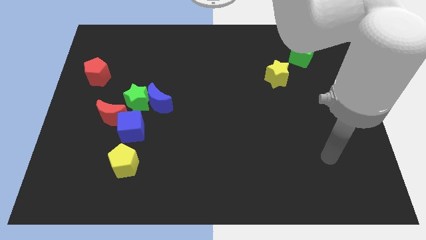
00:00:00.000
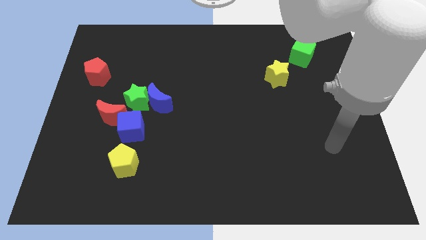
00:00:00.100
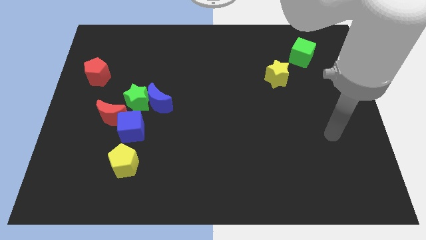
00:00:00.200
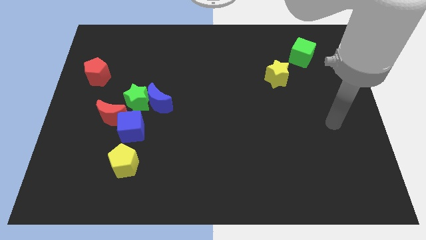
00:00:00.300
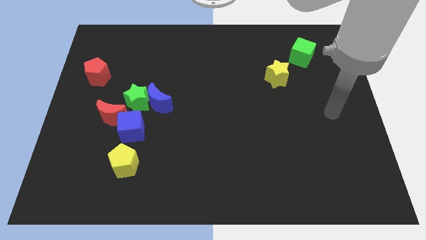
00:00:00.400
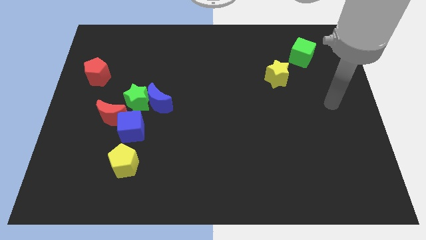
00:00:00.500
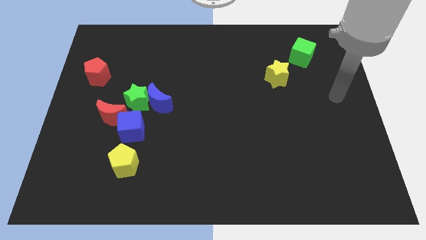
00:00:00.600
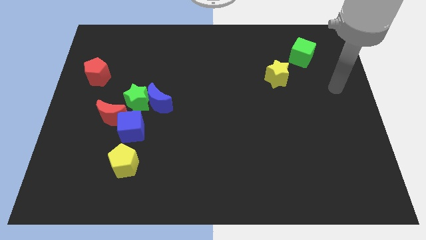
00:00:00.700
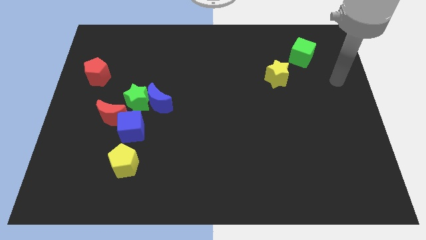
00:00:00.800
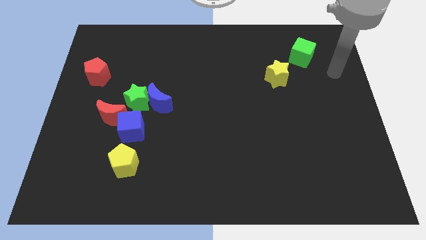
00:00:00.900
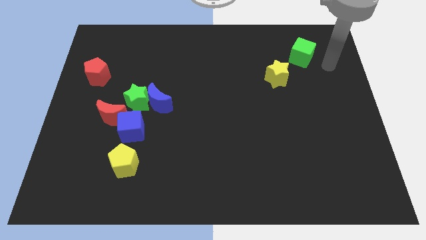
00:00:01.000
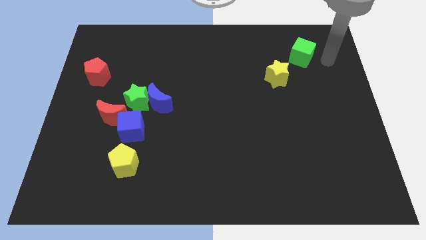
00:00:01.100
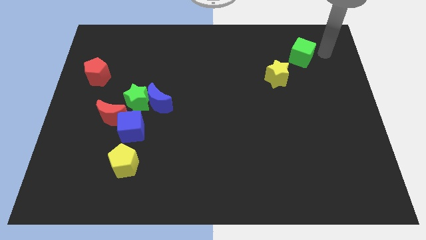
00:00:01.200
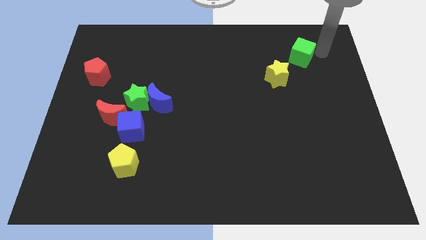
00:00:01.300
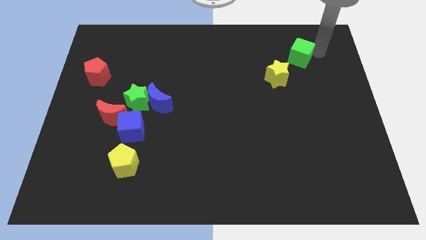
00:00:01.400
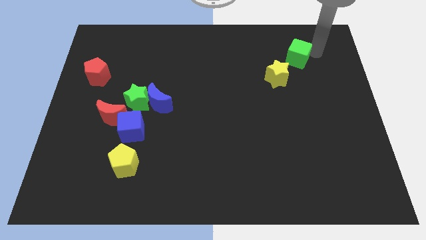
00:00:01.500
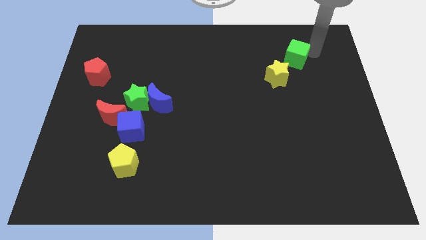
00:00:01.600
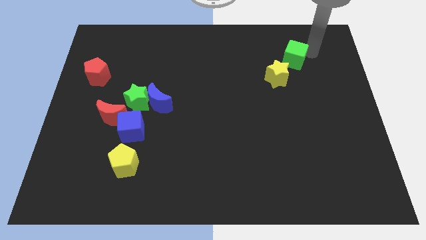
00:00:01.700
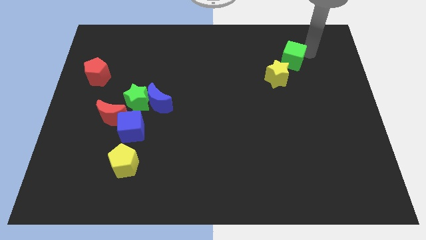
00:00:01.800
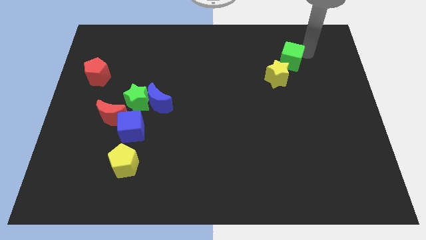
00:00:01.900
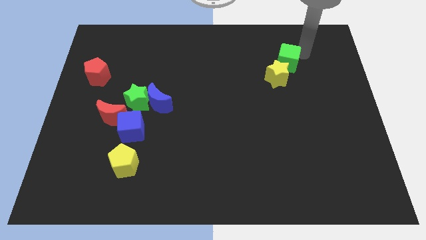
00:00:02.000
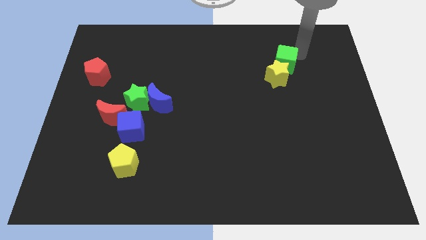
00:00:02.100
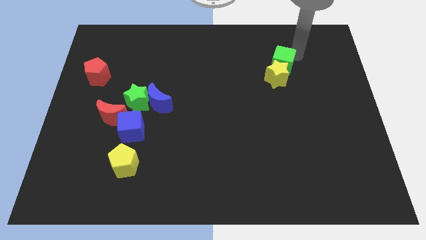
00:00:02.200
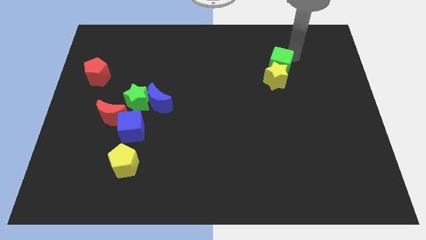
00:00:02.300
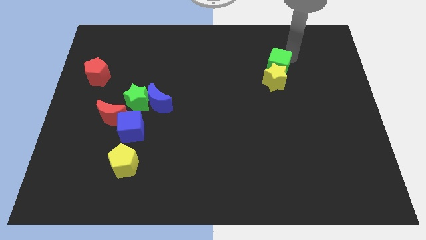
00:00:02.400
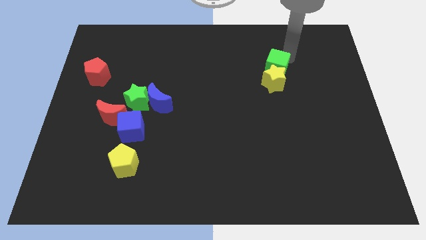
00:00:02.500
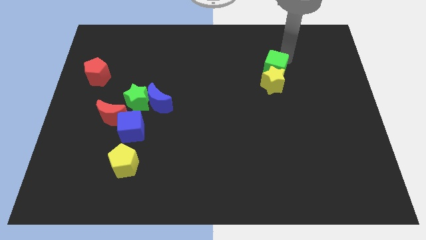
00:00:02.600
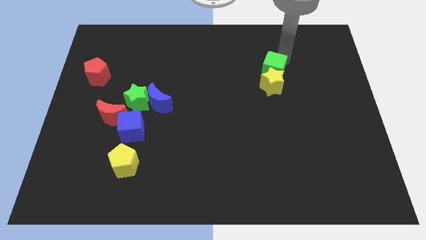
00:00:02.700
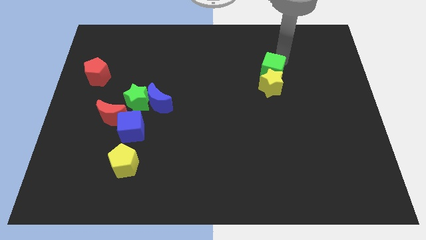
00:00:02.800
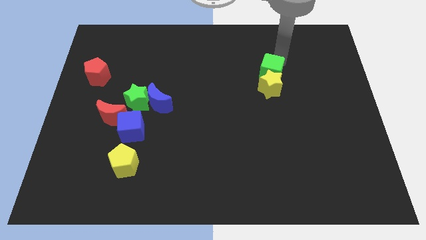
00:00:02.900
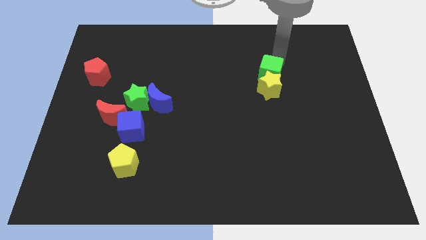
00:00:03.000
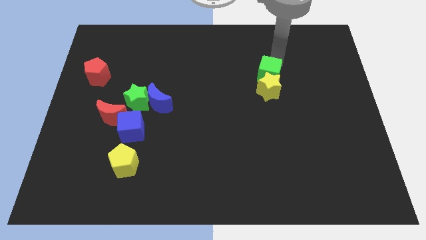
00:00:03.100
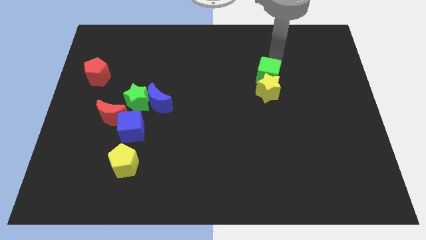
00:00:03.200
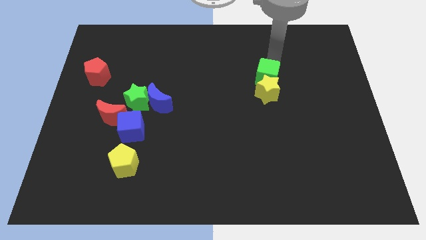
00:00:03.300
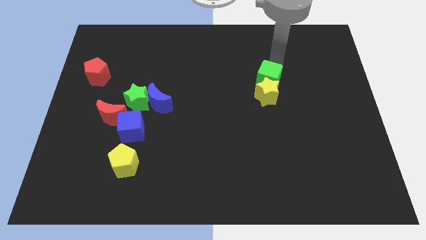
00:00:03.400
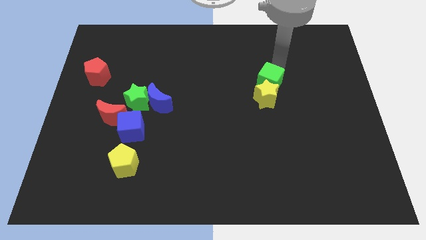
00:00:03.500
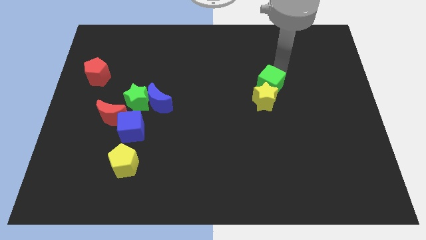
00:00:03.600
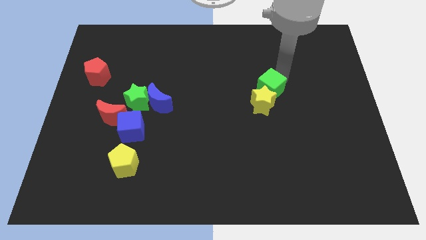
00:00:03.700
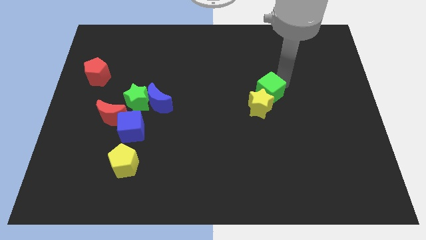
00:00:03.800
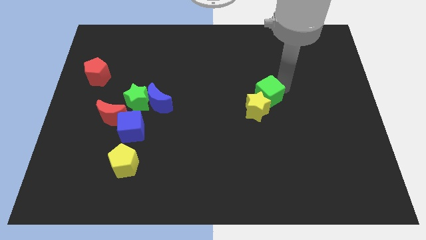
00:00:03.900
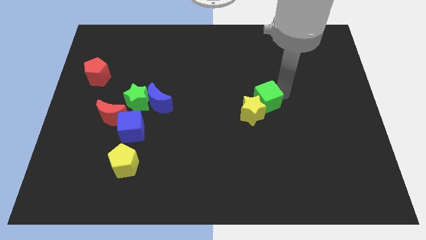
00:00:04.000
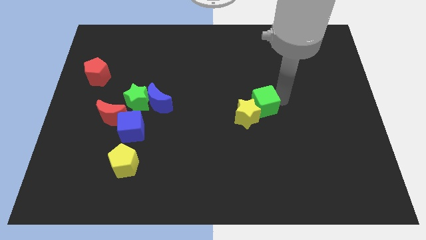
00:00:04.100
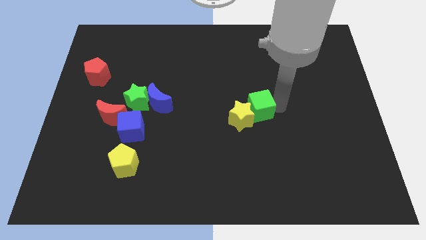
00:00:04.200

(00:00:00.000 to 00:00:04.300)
push the green cube downwards and left diagonally

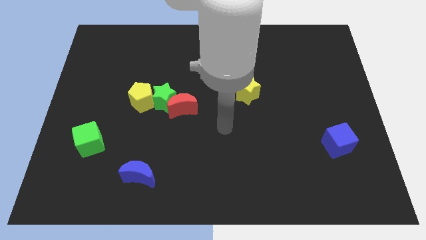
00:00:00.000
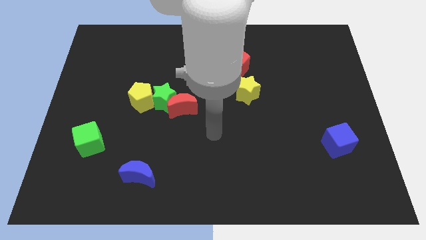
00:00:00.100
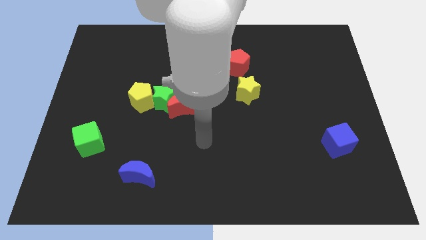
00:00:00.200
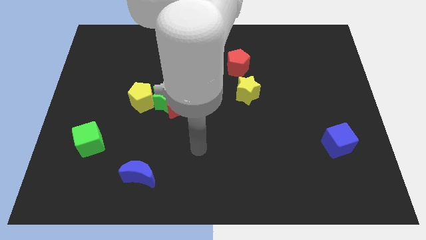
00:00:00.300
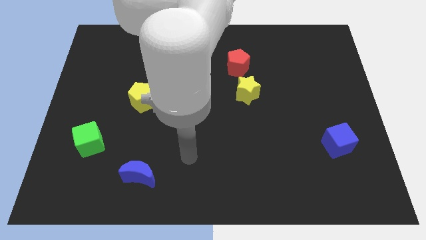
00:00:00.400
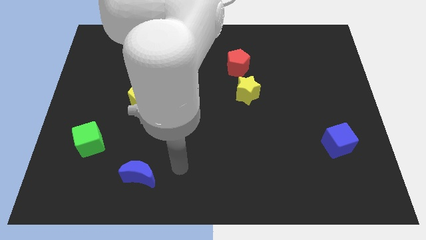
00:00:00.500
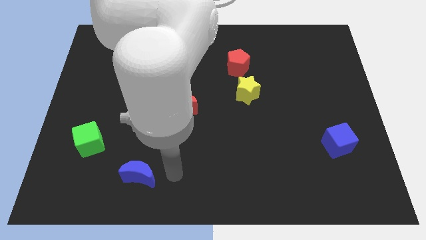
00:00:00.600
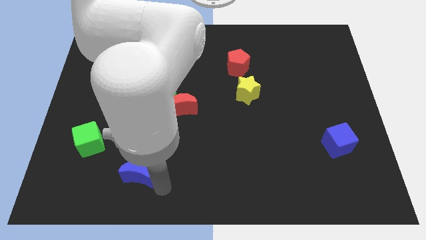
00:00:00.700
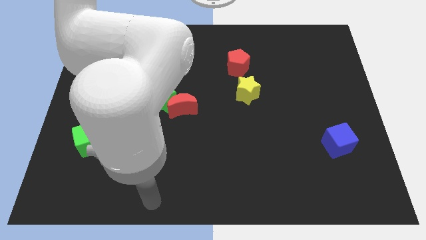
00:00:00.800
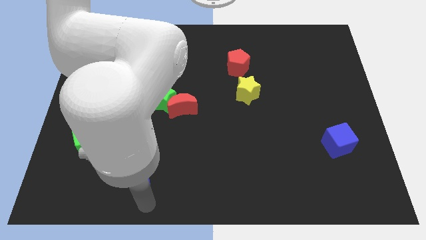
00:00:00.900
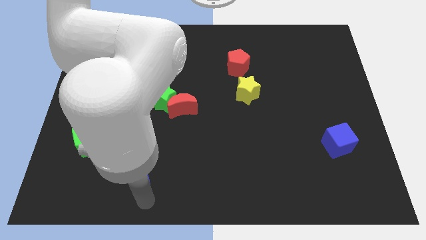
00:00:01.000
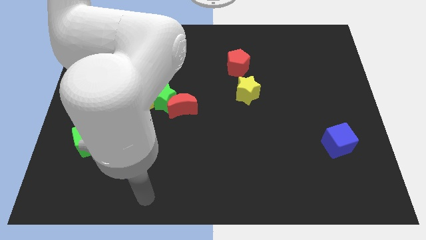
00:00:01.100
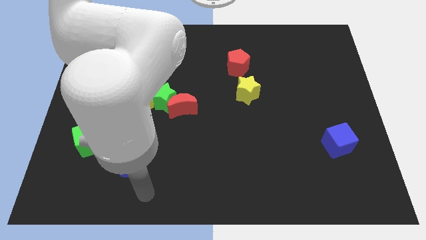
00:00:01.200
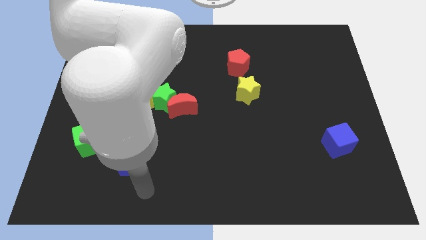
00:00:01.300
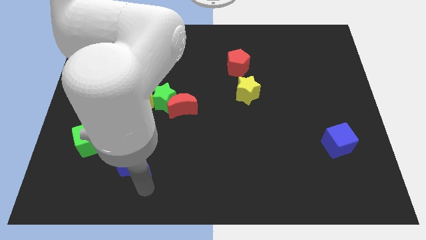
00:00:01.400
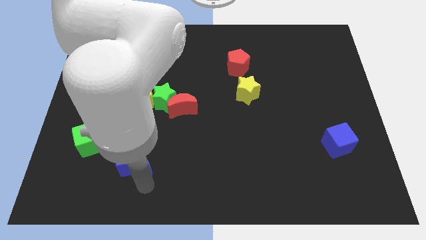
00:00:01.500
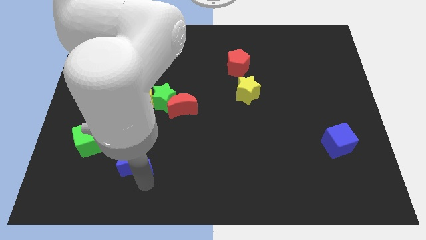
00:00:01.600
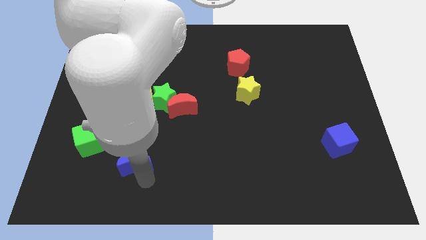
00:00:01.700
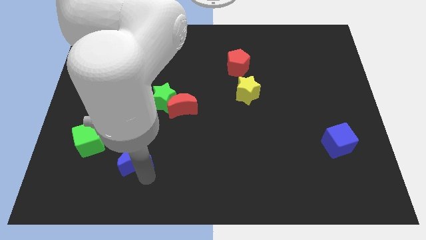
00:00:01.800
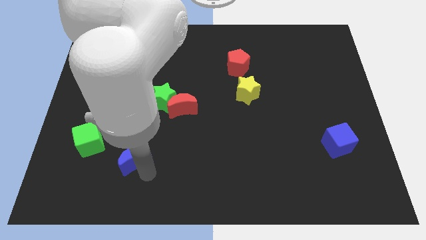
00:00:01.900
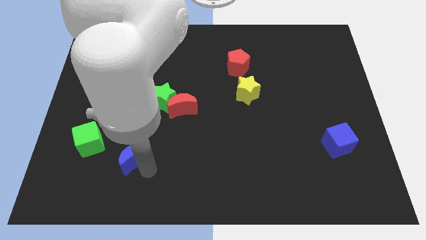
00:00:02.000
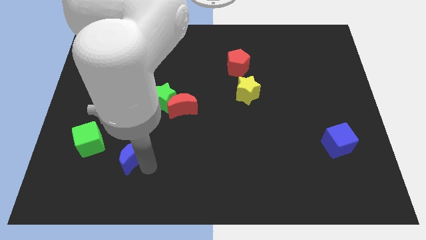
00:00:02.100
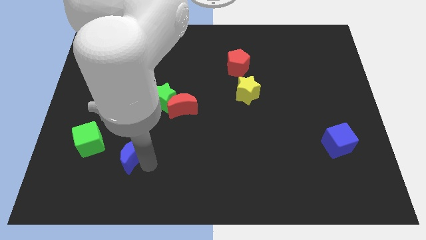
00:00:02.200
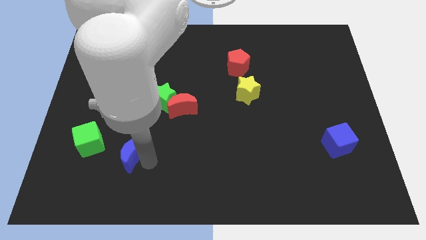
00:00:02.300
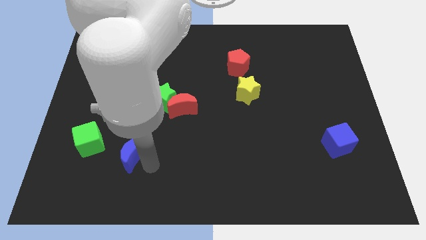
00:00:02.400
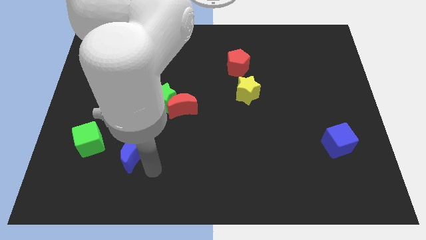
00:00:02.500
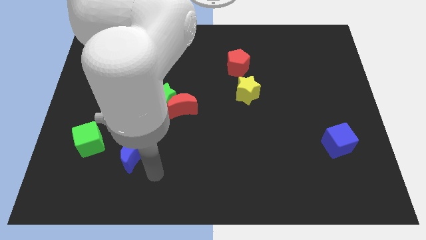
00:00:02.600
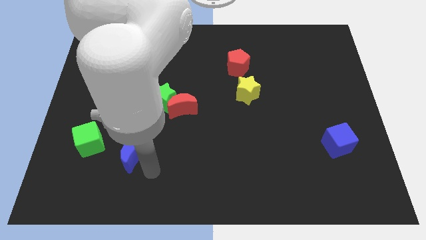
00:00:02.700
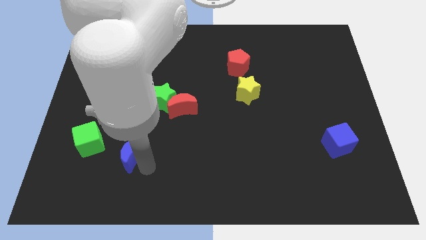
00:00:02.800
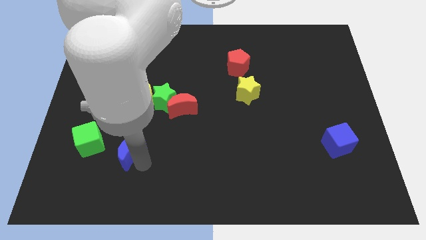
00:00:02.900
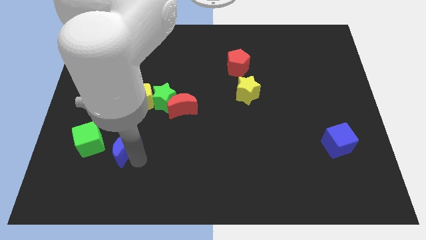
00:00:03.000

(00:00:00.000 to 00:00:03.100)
slide the blue moon diagonally upwards and left a little bit

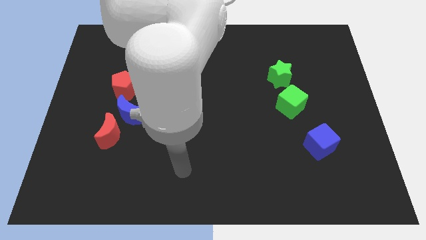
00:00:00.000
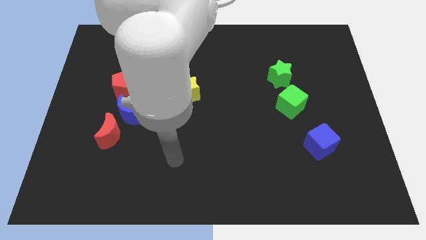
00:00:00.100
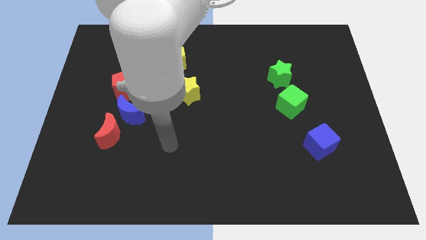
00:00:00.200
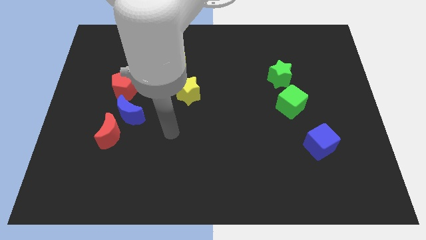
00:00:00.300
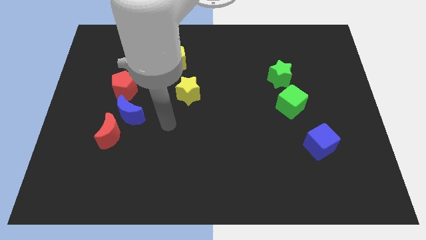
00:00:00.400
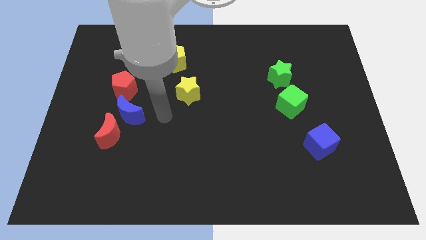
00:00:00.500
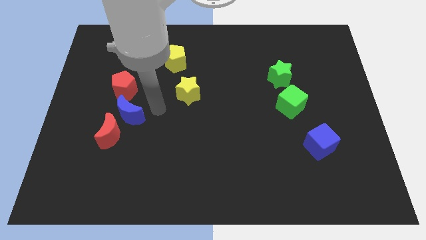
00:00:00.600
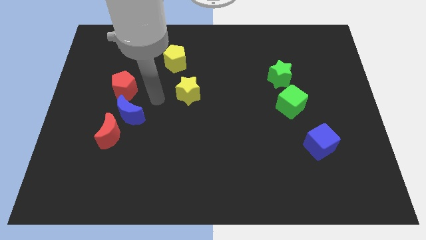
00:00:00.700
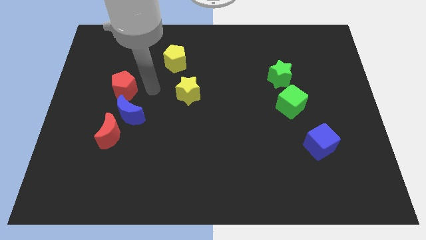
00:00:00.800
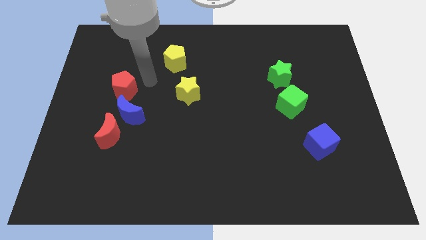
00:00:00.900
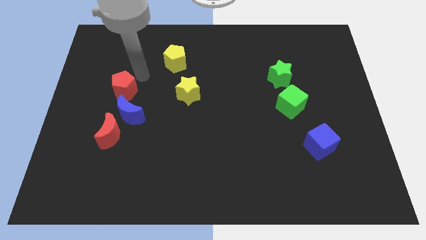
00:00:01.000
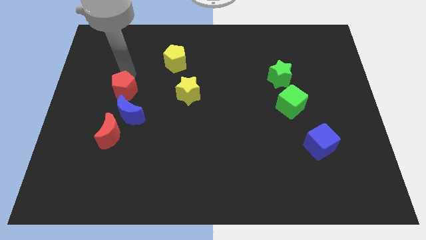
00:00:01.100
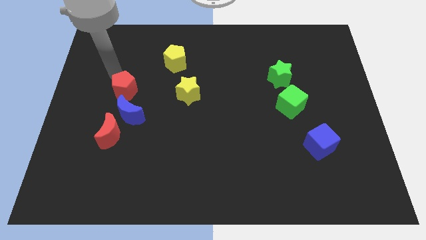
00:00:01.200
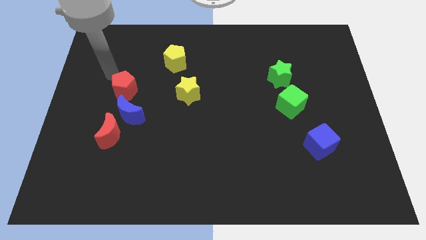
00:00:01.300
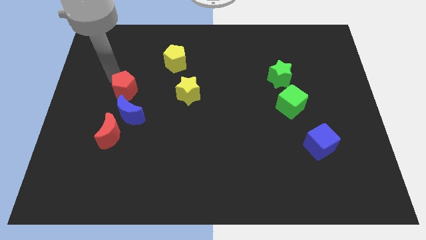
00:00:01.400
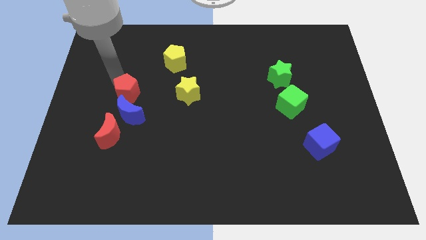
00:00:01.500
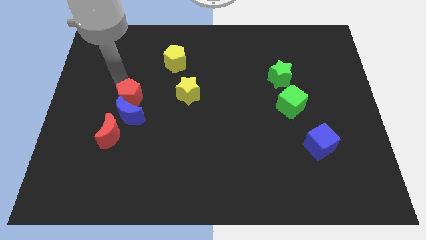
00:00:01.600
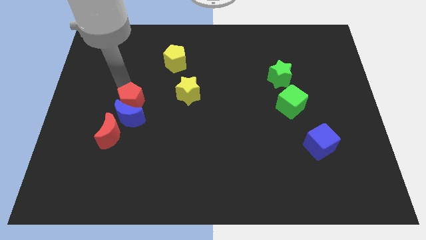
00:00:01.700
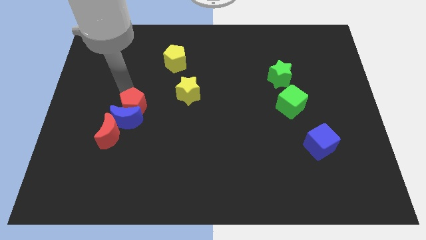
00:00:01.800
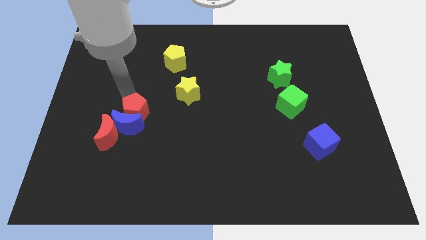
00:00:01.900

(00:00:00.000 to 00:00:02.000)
slide the red pentagon a little downwards and right diagonally
